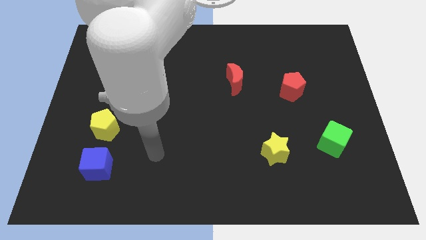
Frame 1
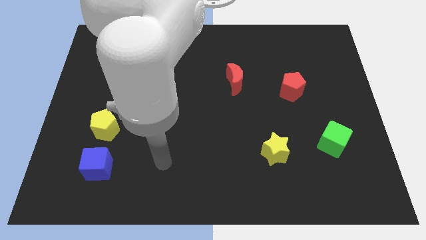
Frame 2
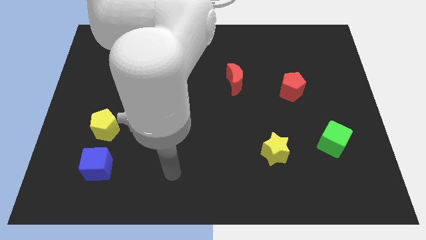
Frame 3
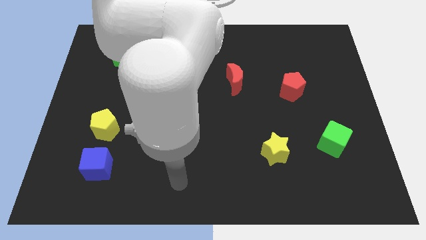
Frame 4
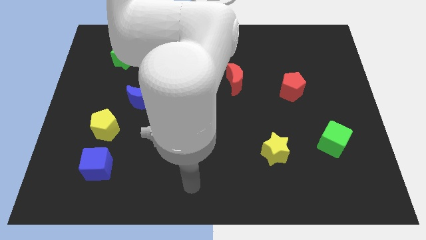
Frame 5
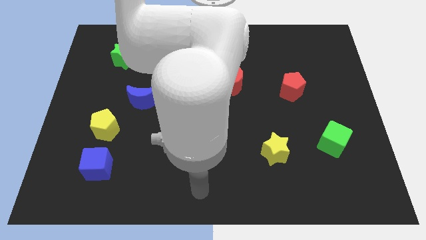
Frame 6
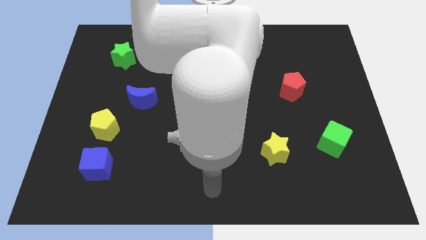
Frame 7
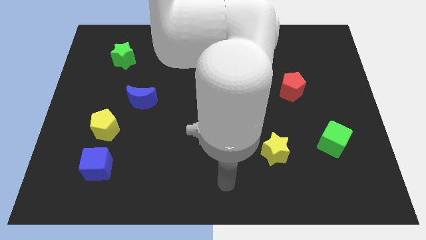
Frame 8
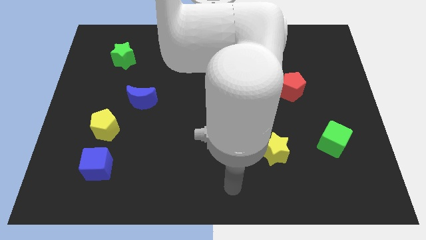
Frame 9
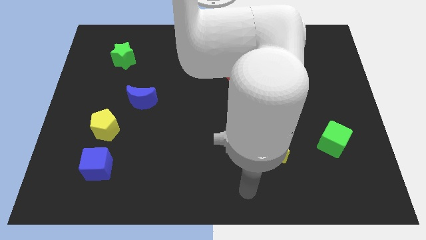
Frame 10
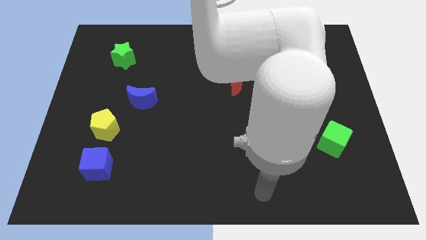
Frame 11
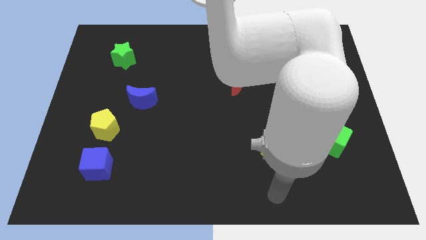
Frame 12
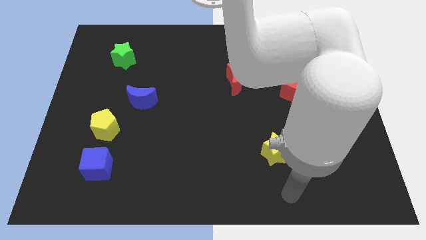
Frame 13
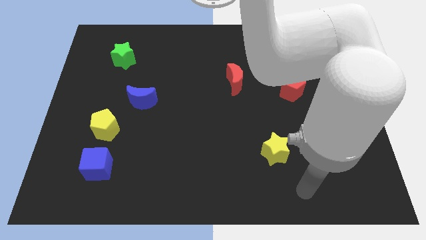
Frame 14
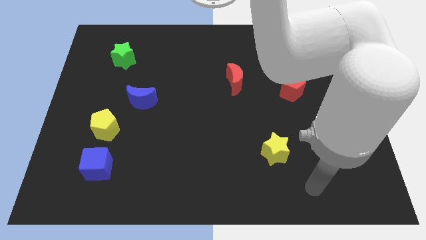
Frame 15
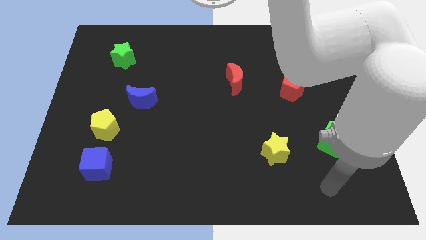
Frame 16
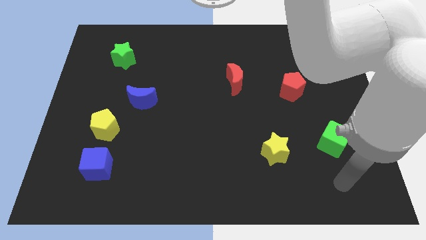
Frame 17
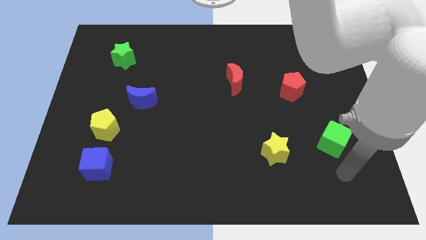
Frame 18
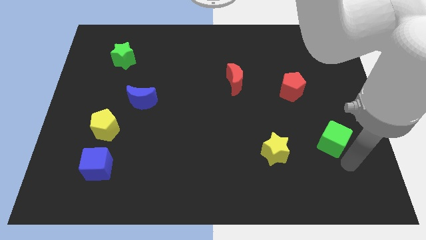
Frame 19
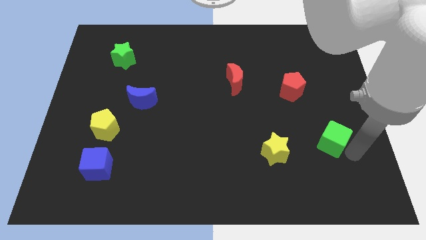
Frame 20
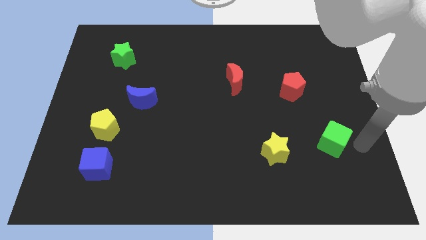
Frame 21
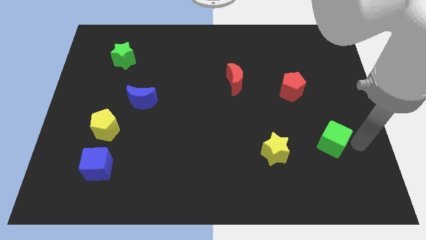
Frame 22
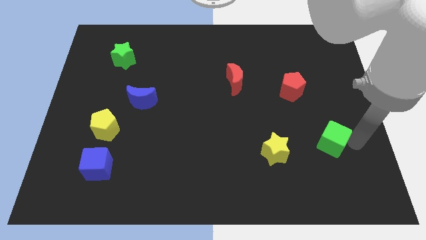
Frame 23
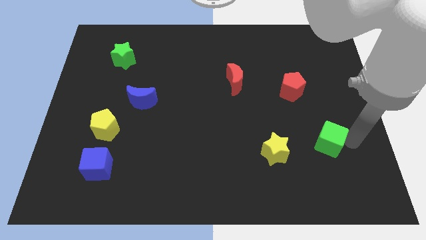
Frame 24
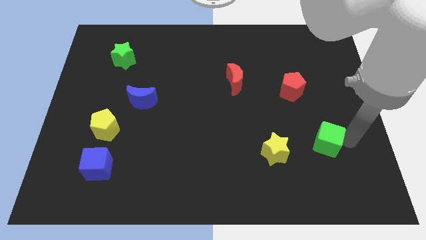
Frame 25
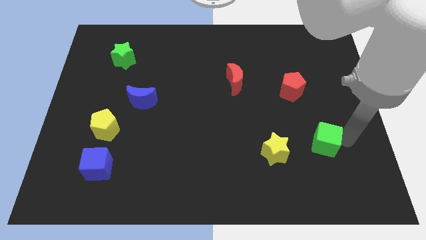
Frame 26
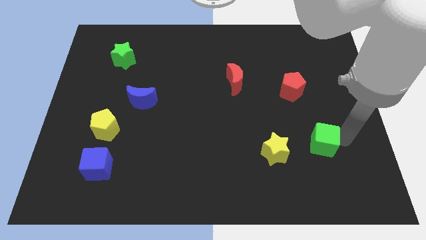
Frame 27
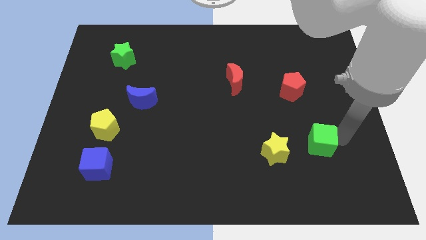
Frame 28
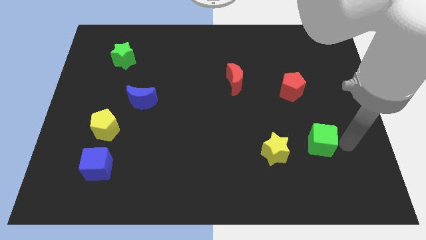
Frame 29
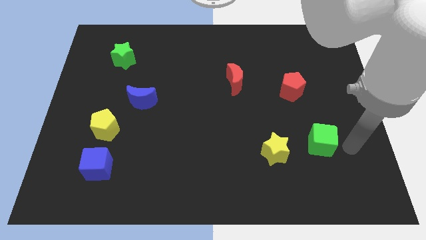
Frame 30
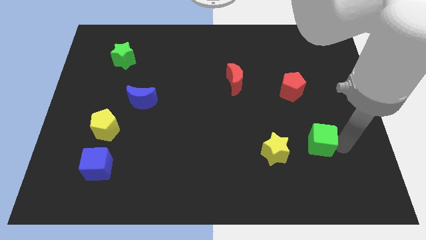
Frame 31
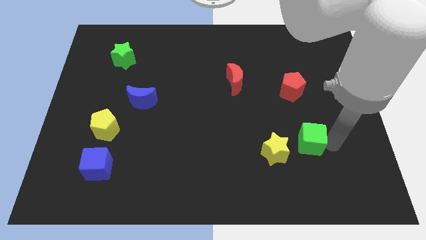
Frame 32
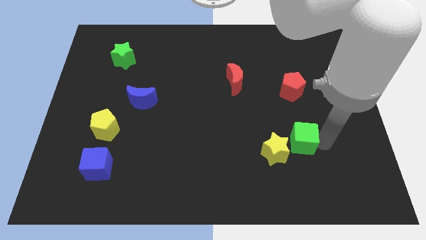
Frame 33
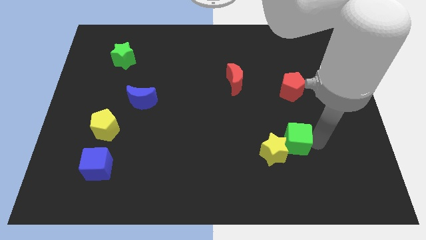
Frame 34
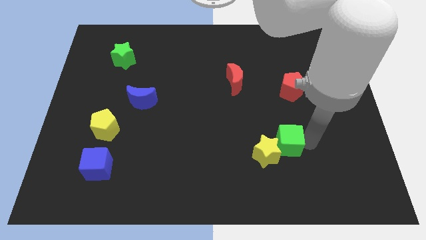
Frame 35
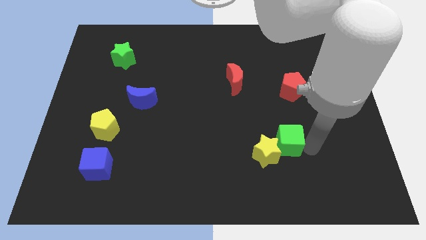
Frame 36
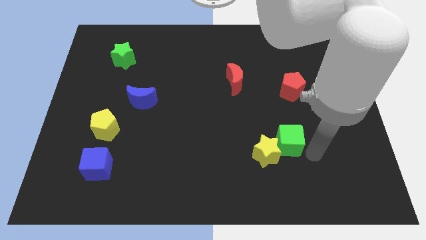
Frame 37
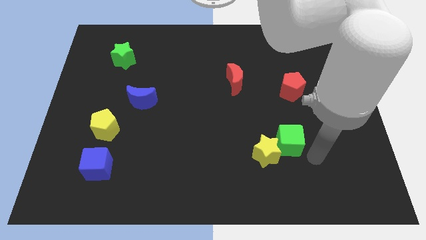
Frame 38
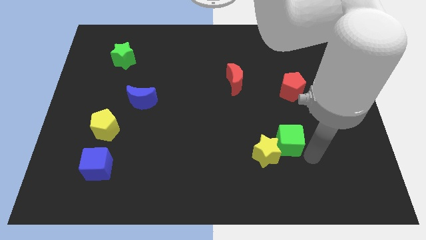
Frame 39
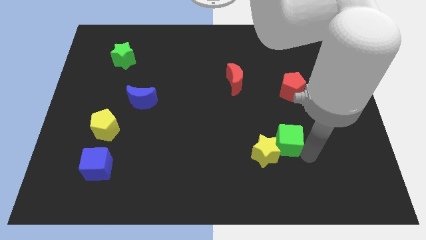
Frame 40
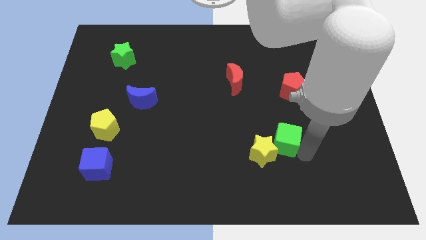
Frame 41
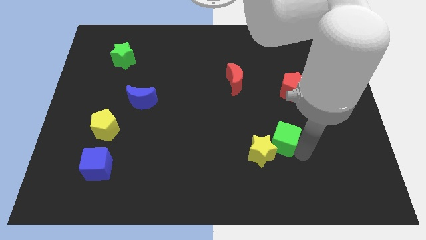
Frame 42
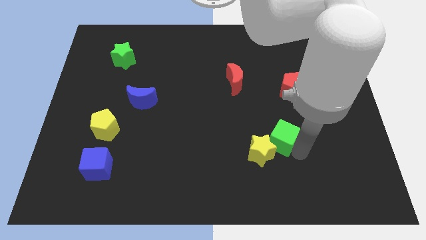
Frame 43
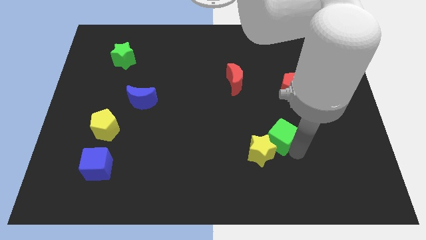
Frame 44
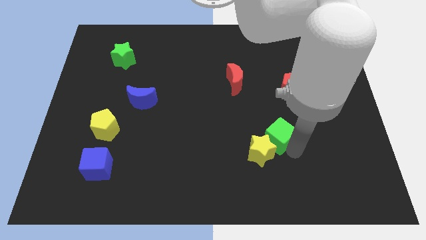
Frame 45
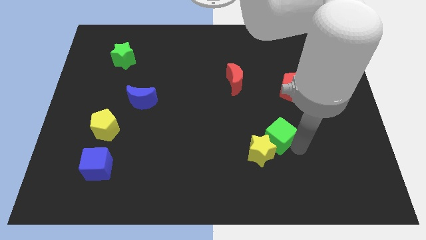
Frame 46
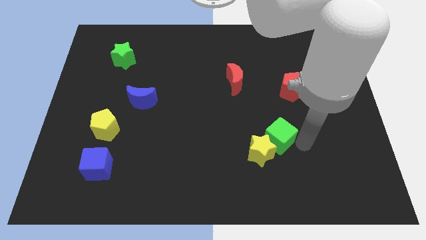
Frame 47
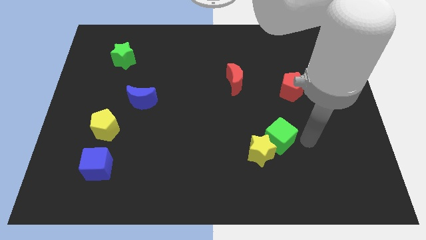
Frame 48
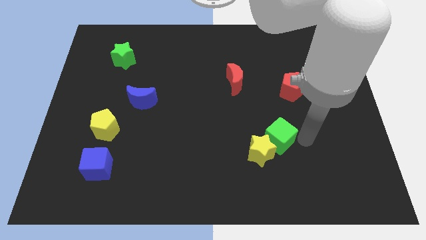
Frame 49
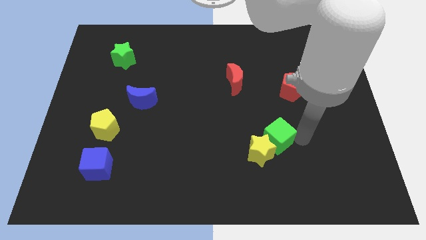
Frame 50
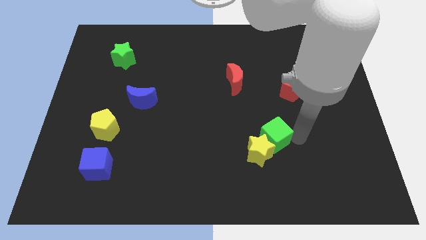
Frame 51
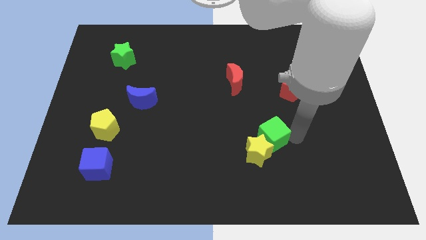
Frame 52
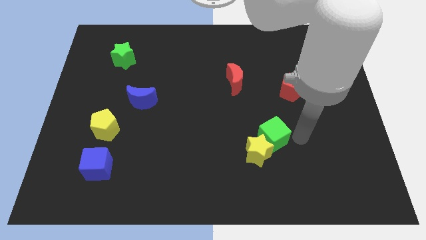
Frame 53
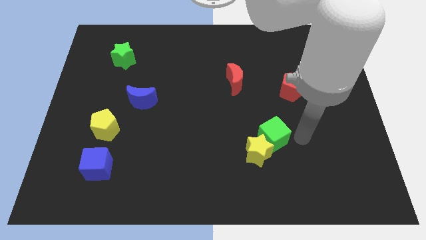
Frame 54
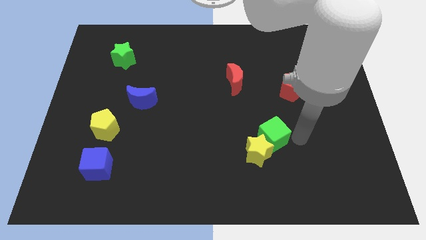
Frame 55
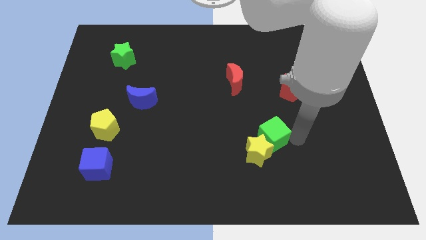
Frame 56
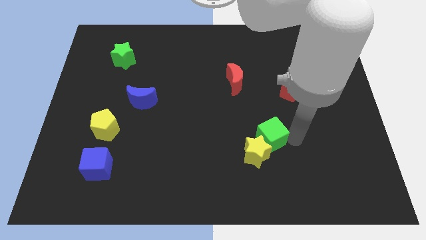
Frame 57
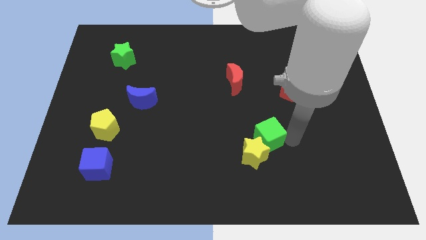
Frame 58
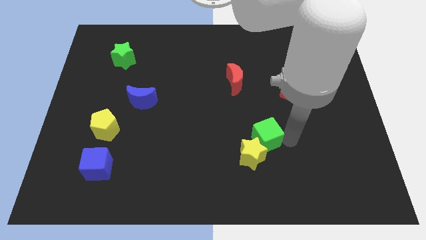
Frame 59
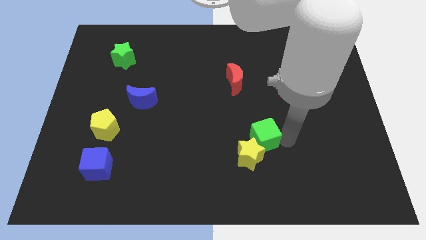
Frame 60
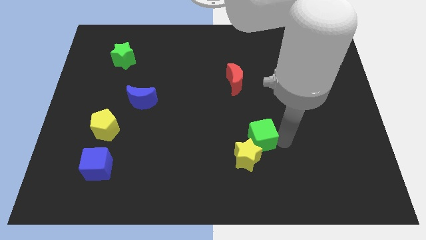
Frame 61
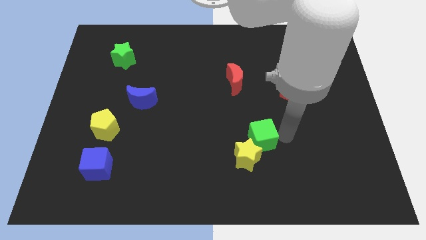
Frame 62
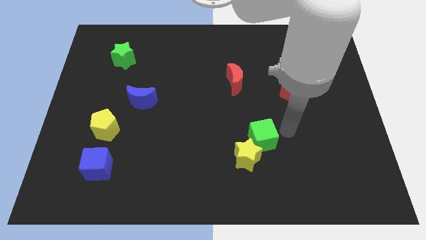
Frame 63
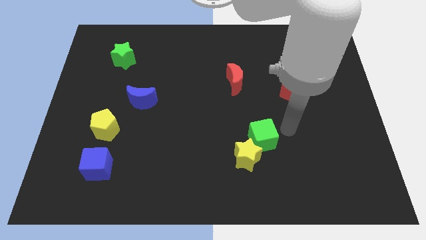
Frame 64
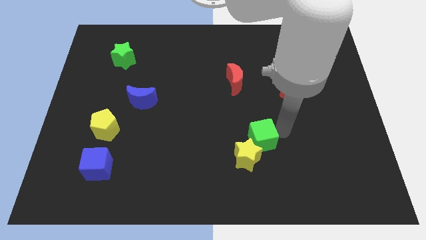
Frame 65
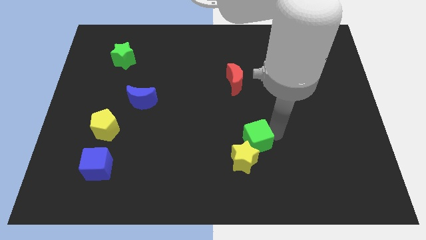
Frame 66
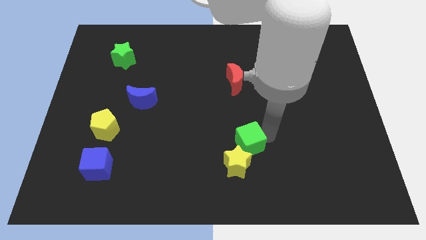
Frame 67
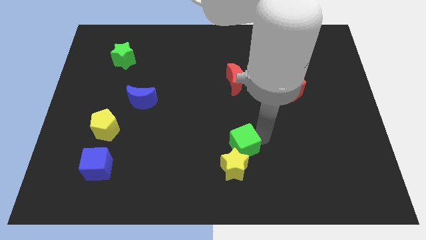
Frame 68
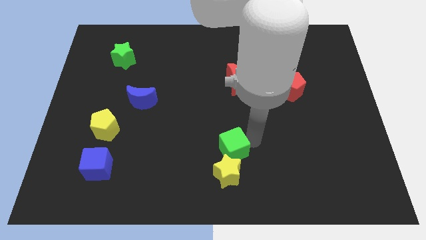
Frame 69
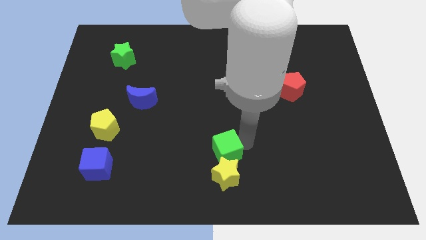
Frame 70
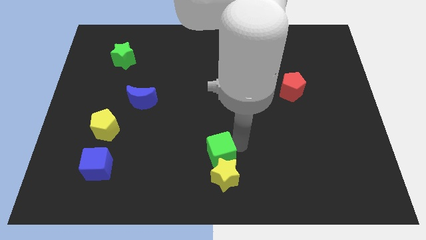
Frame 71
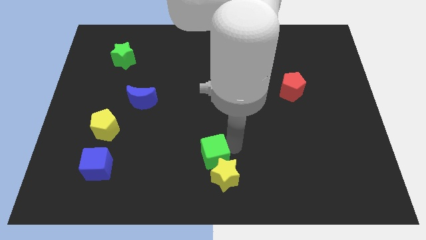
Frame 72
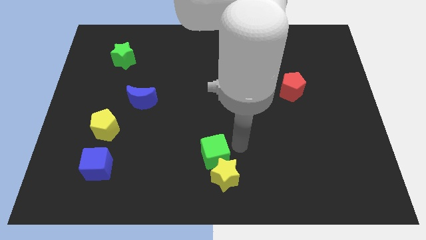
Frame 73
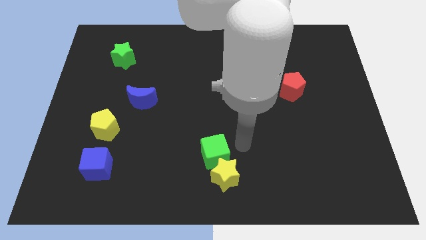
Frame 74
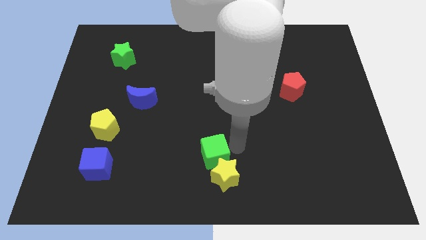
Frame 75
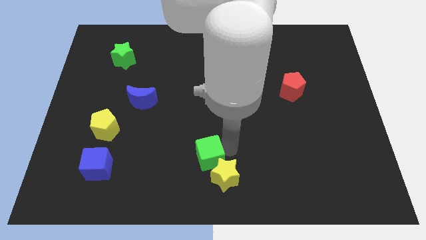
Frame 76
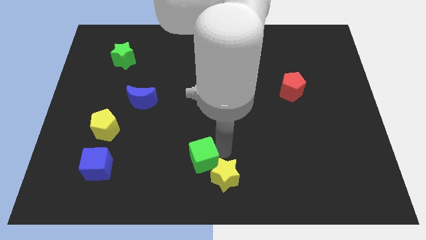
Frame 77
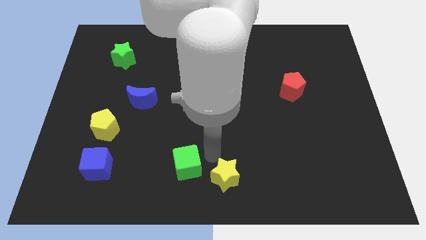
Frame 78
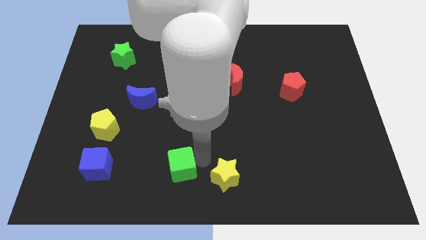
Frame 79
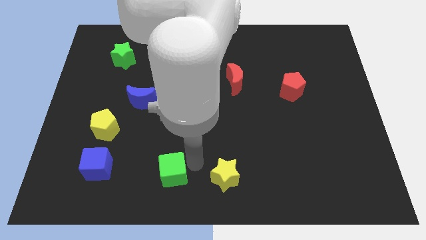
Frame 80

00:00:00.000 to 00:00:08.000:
slide the green cube to the right side of the blue cube
